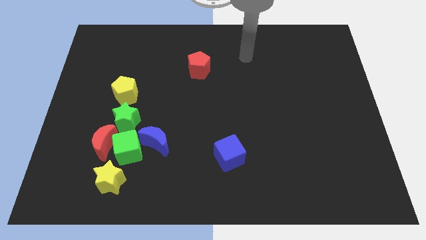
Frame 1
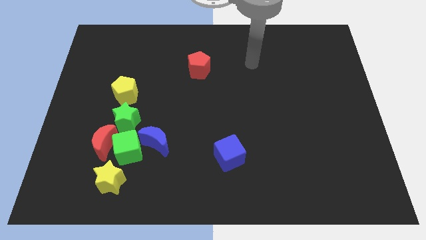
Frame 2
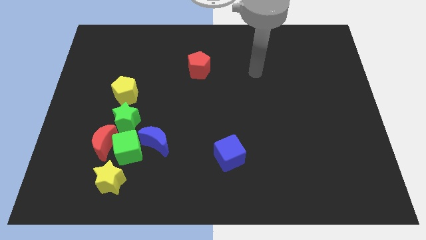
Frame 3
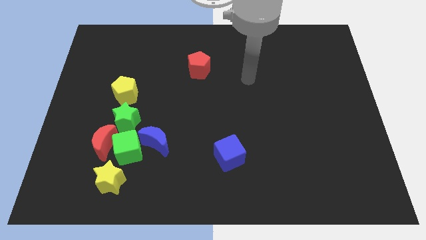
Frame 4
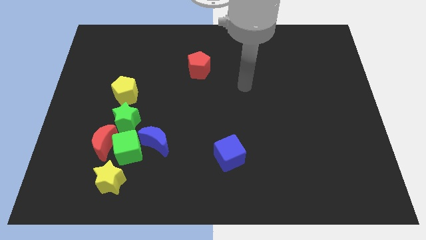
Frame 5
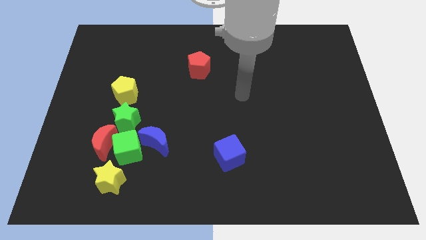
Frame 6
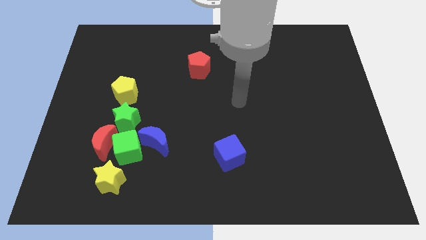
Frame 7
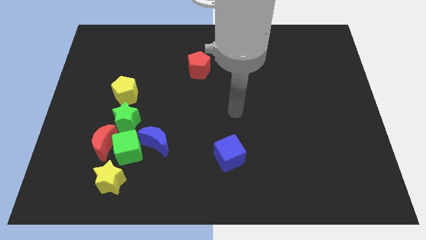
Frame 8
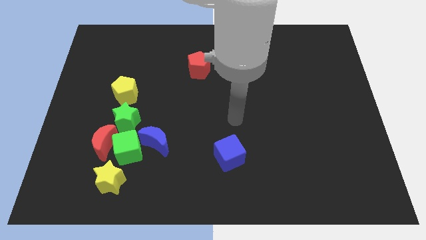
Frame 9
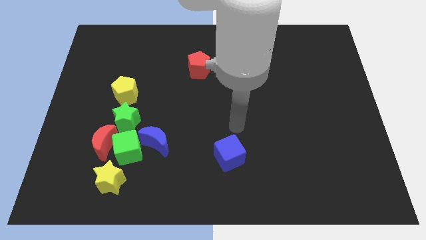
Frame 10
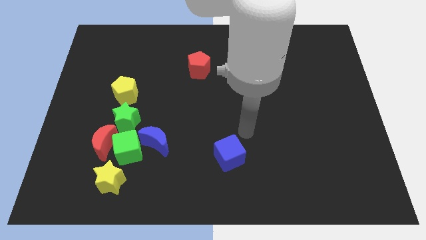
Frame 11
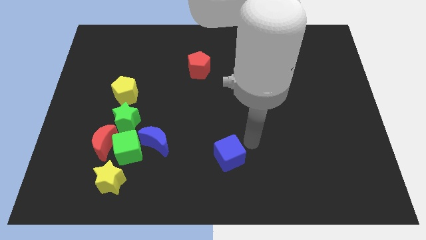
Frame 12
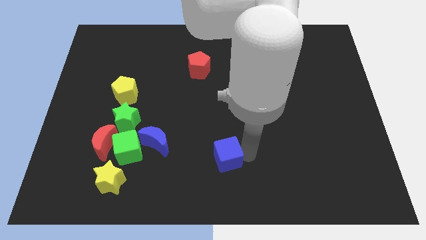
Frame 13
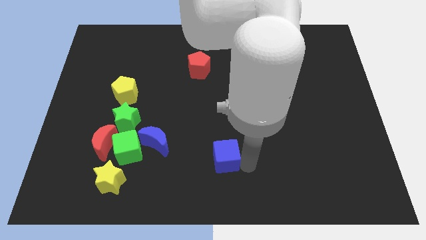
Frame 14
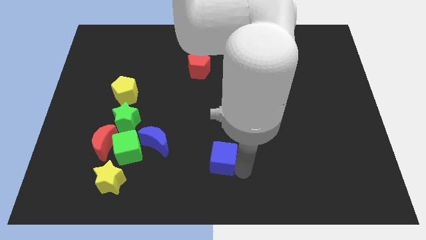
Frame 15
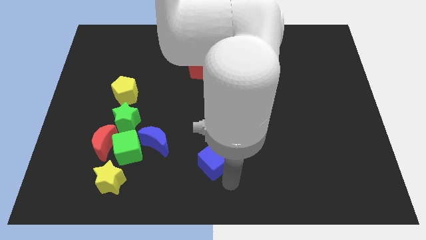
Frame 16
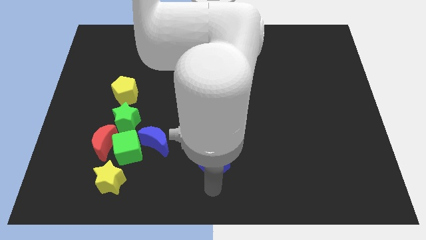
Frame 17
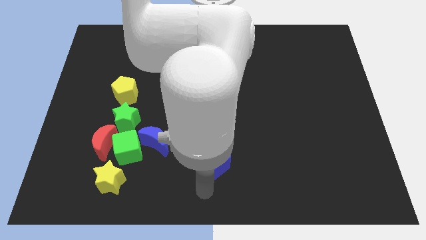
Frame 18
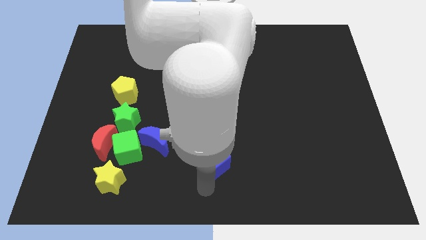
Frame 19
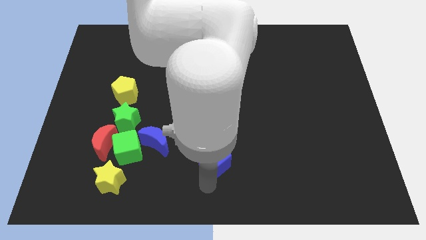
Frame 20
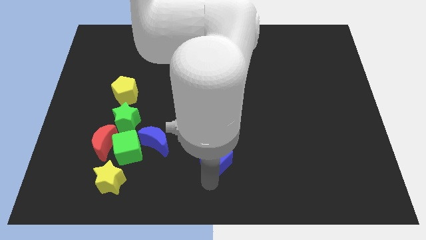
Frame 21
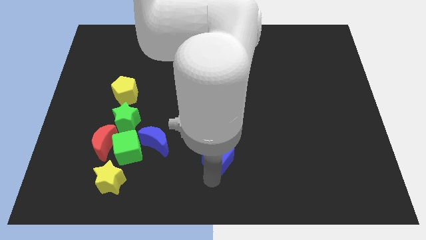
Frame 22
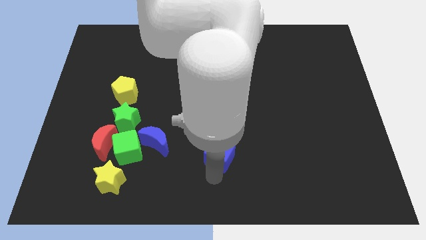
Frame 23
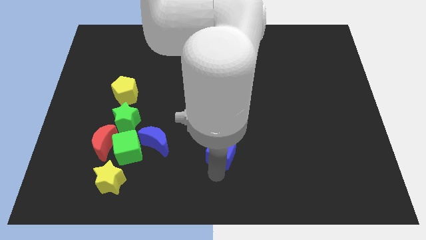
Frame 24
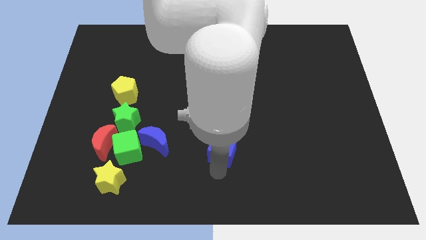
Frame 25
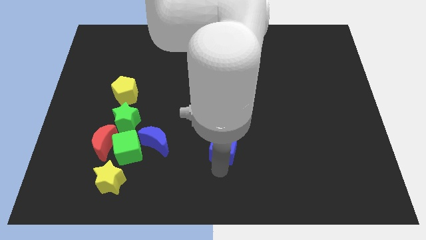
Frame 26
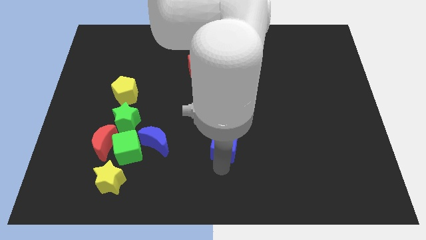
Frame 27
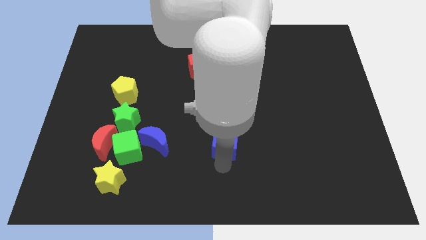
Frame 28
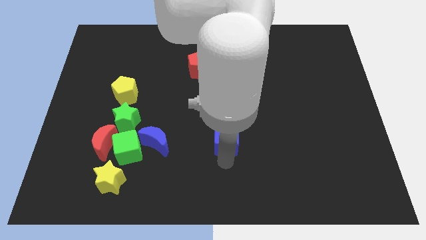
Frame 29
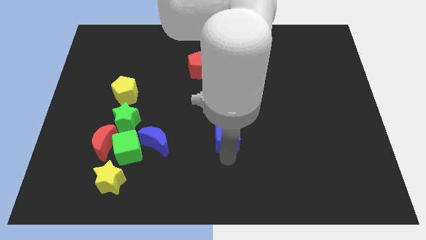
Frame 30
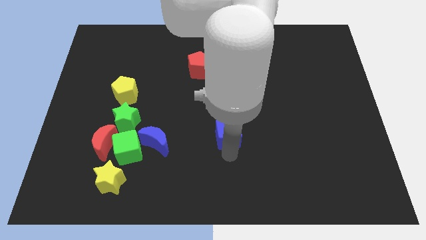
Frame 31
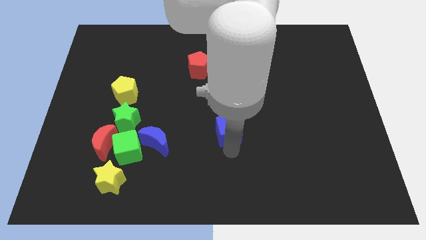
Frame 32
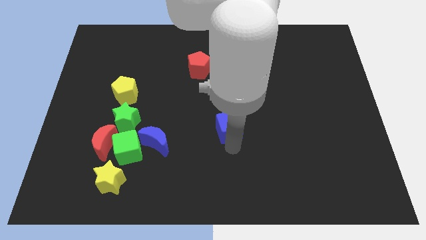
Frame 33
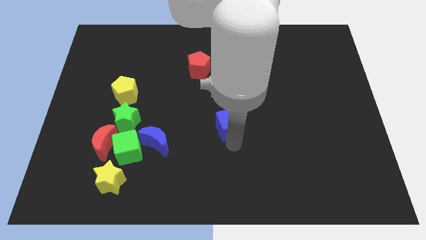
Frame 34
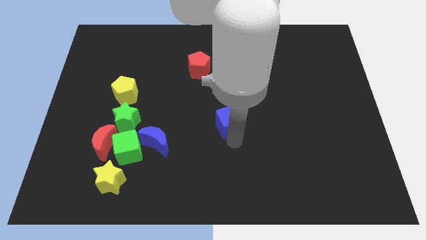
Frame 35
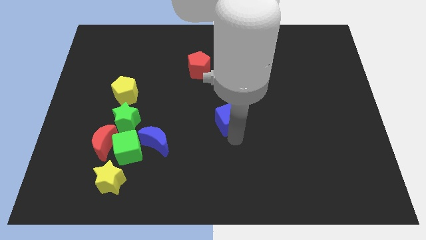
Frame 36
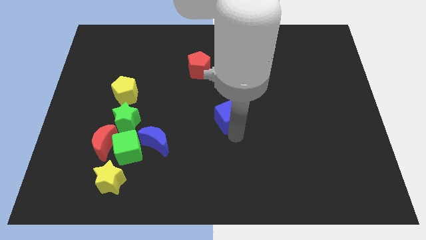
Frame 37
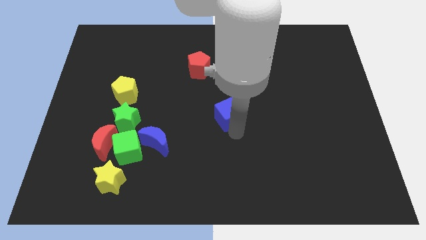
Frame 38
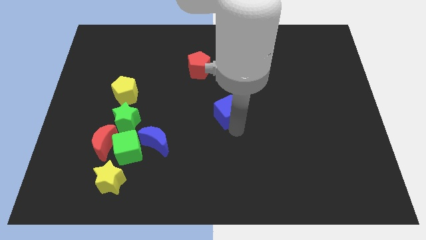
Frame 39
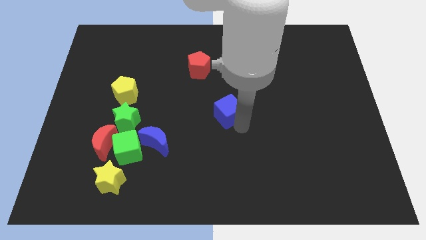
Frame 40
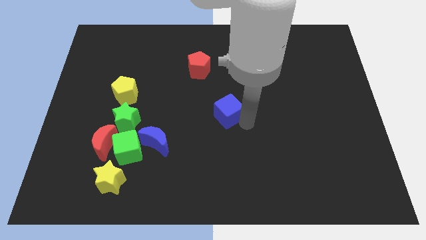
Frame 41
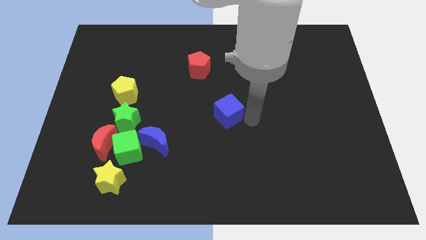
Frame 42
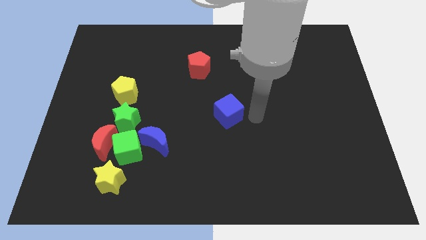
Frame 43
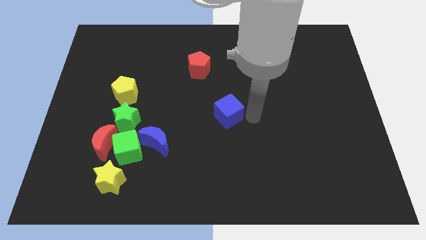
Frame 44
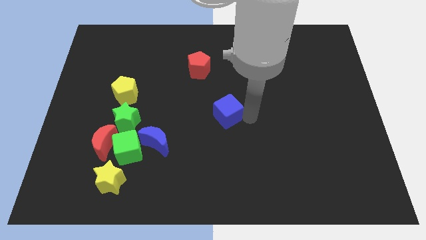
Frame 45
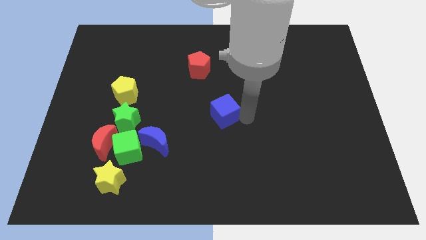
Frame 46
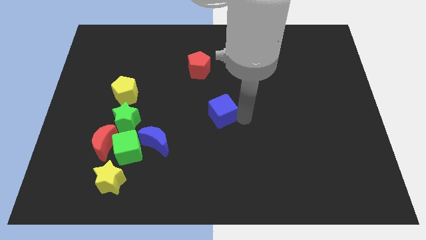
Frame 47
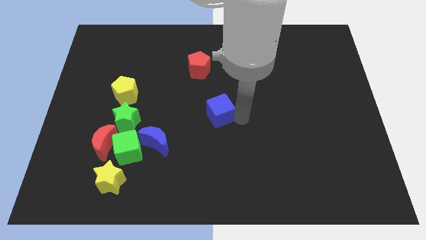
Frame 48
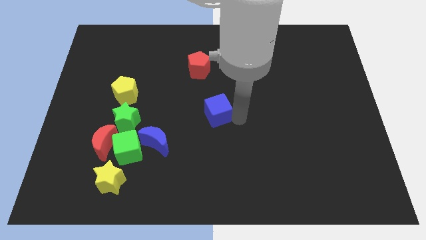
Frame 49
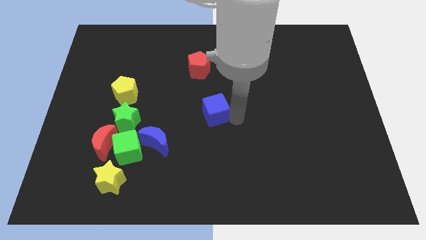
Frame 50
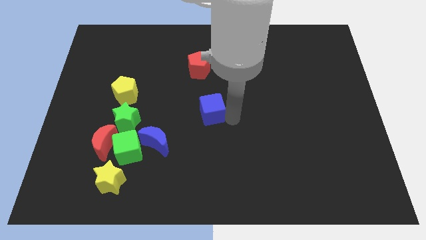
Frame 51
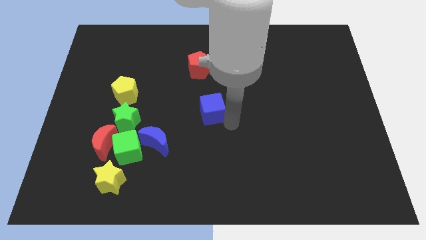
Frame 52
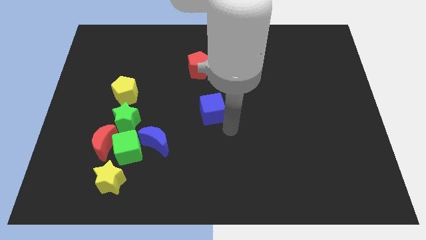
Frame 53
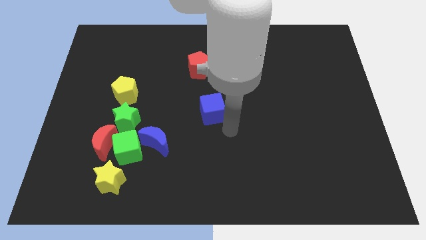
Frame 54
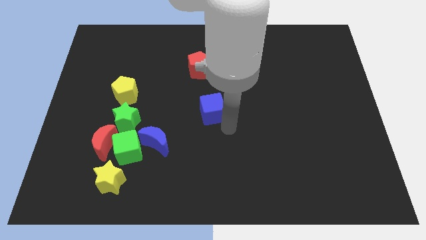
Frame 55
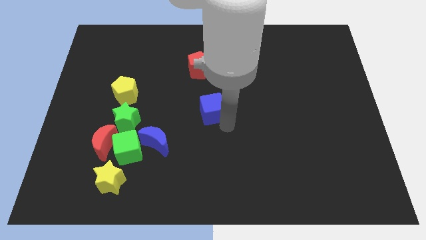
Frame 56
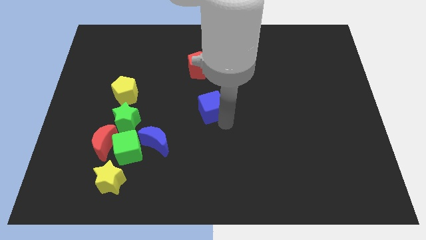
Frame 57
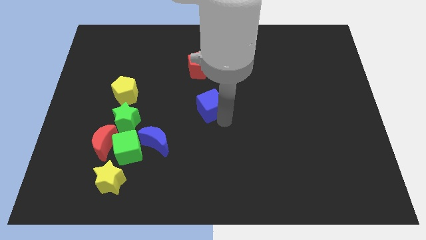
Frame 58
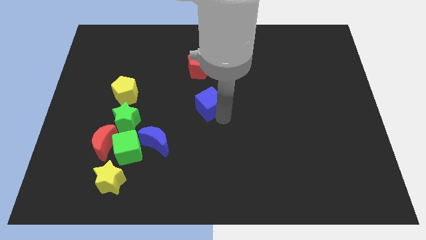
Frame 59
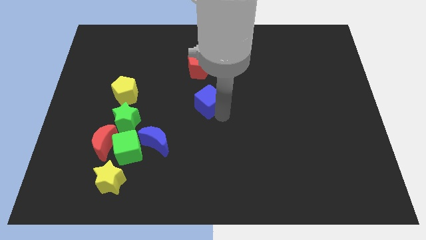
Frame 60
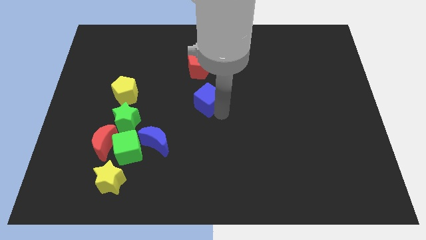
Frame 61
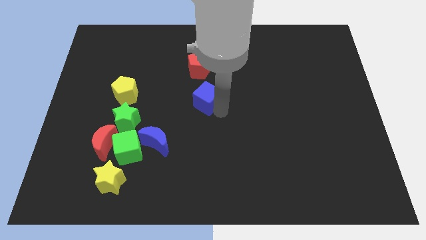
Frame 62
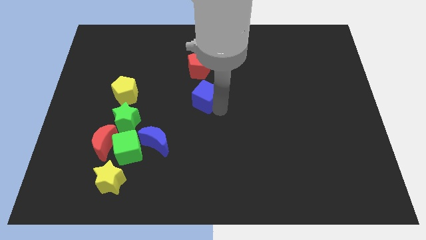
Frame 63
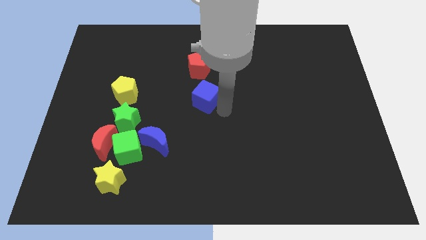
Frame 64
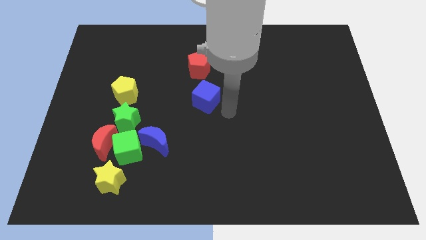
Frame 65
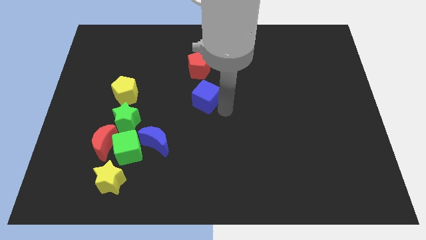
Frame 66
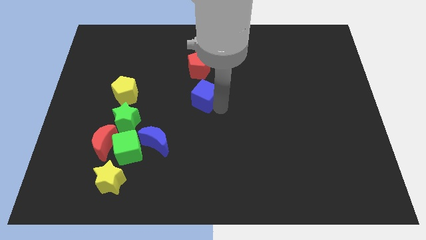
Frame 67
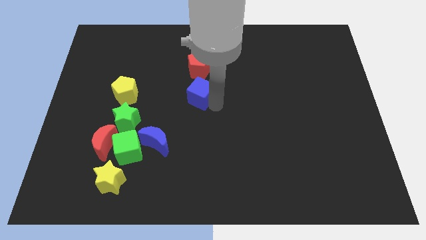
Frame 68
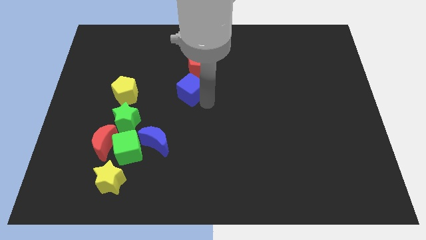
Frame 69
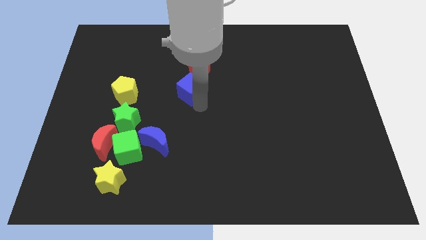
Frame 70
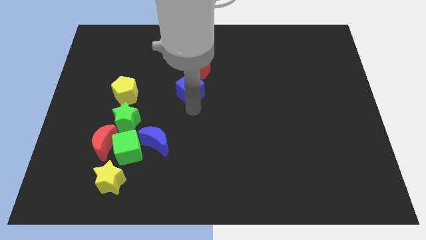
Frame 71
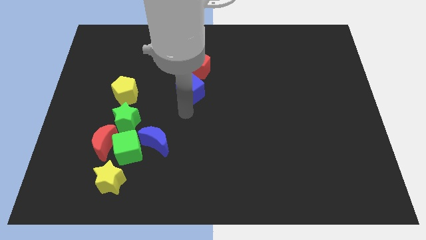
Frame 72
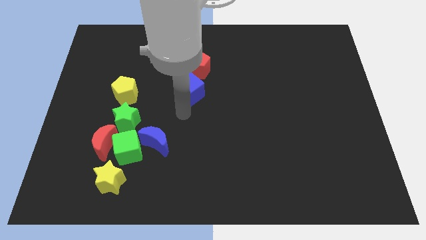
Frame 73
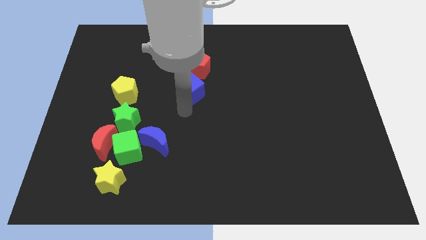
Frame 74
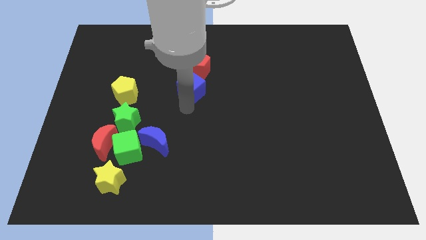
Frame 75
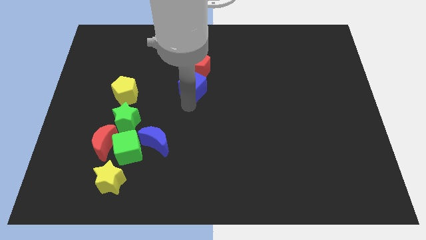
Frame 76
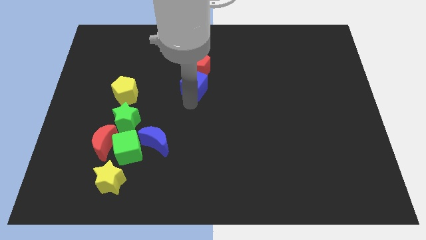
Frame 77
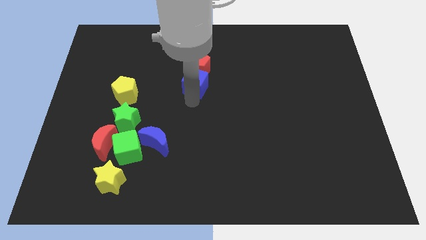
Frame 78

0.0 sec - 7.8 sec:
push the blue cube close to the red pentagon
